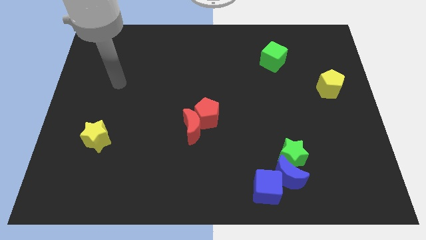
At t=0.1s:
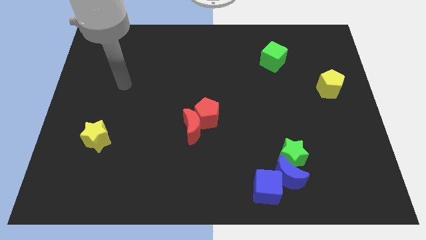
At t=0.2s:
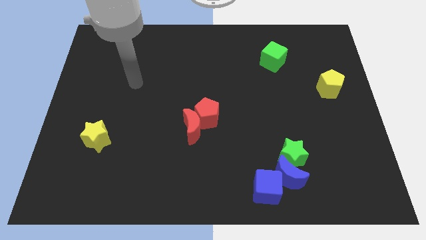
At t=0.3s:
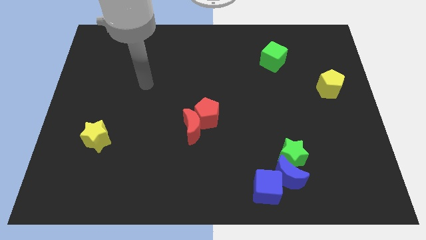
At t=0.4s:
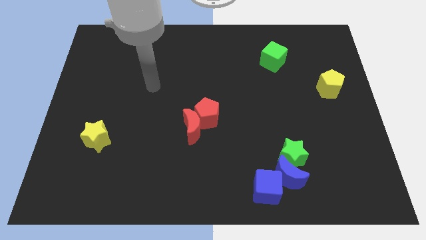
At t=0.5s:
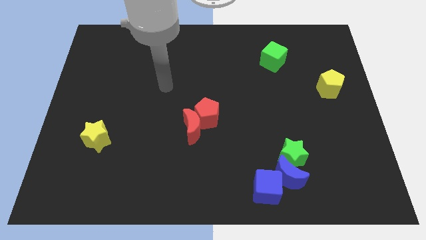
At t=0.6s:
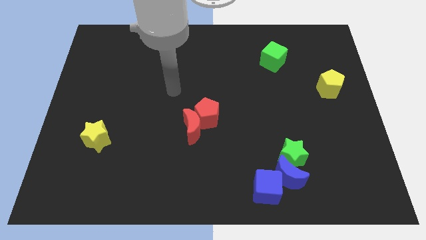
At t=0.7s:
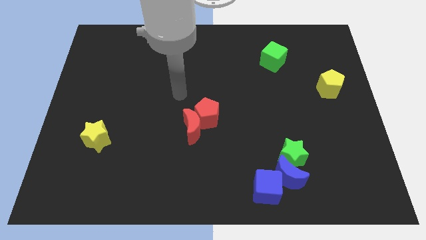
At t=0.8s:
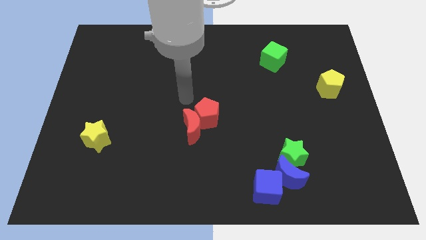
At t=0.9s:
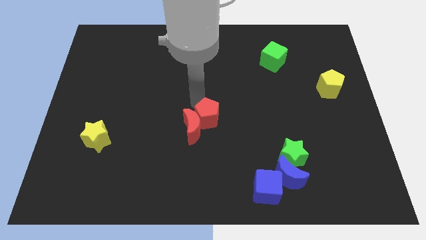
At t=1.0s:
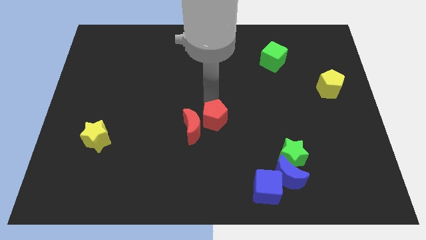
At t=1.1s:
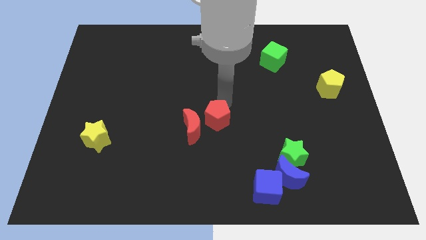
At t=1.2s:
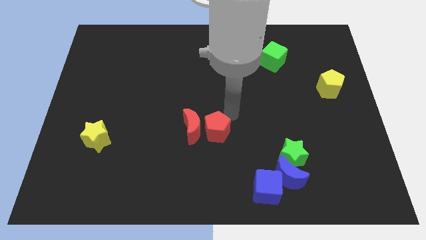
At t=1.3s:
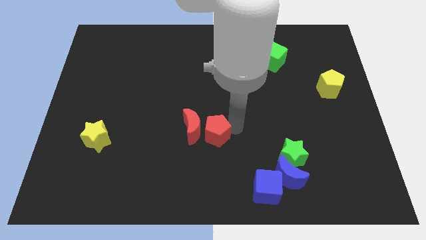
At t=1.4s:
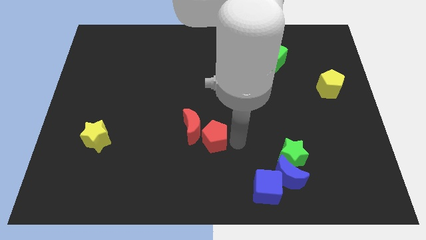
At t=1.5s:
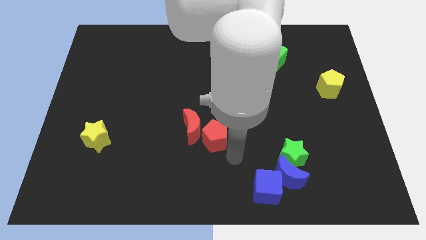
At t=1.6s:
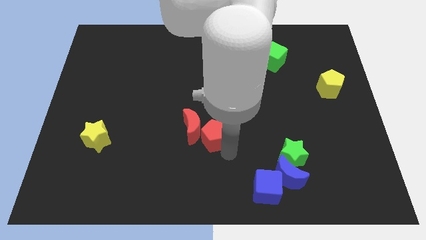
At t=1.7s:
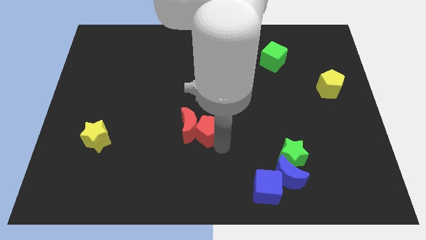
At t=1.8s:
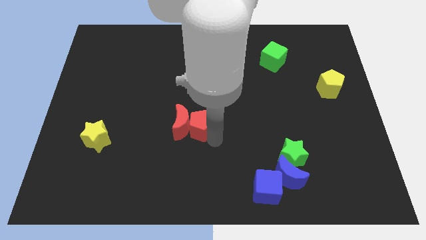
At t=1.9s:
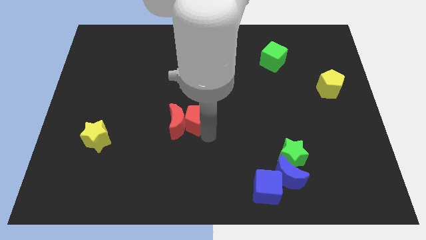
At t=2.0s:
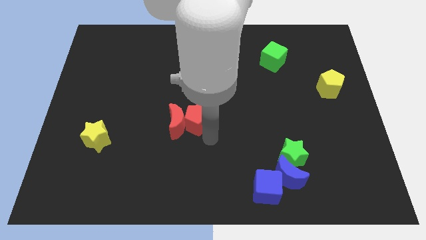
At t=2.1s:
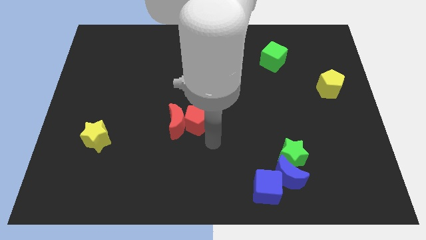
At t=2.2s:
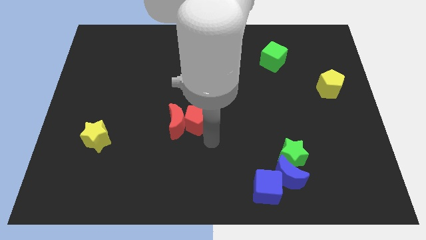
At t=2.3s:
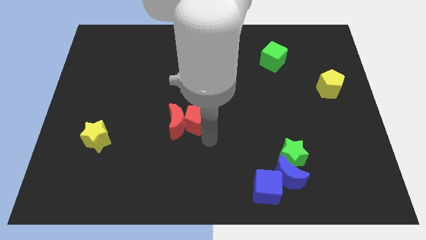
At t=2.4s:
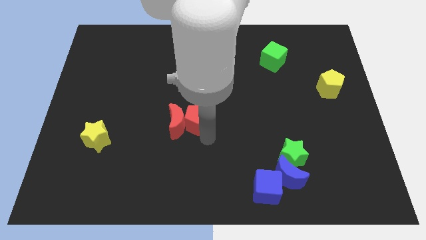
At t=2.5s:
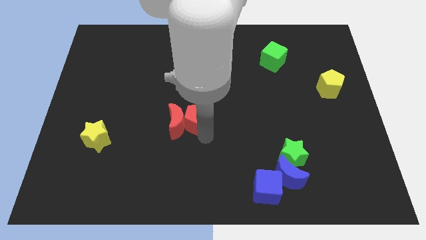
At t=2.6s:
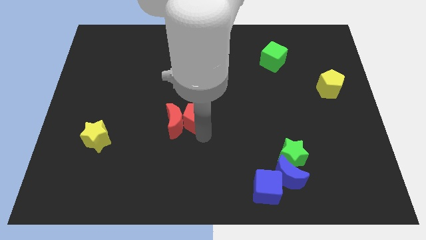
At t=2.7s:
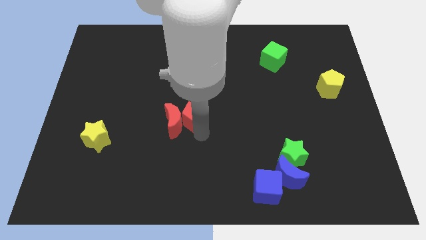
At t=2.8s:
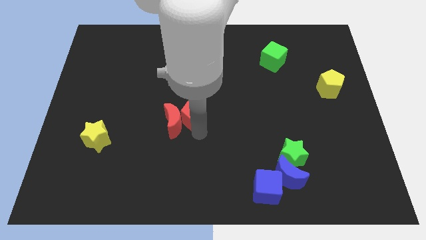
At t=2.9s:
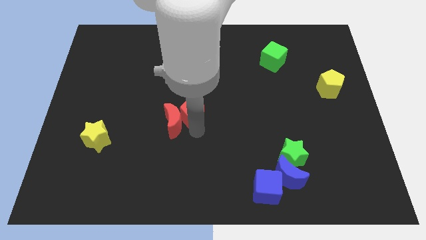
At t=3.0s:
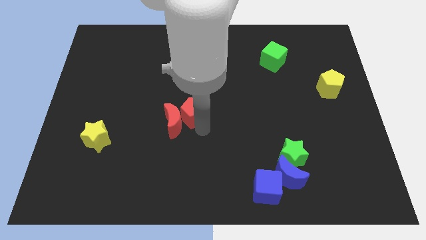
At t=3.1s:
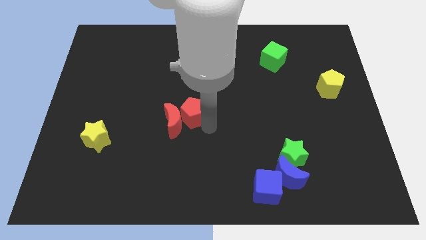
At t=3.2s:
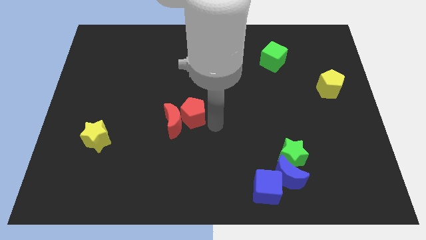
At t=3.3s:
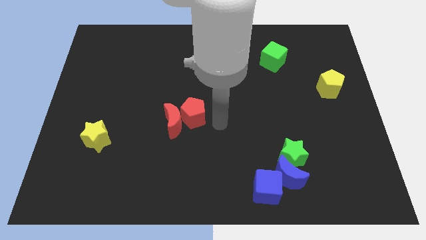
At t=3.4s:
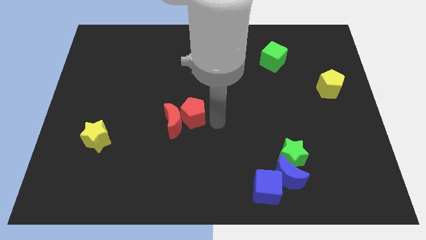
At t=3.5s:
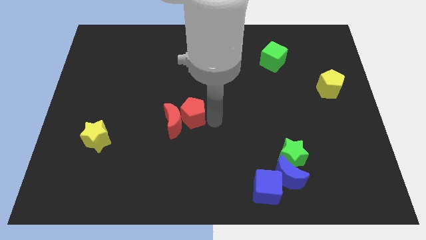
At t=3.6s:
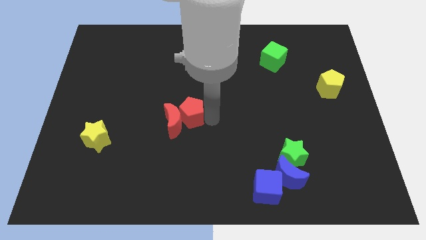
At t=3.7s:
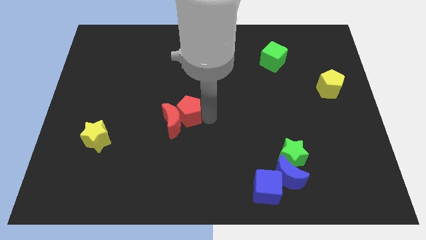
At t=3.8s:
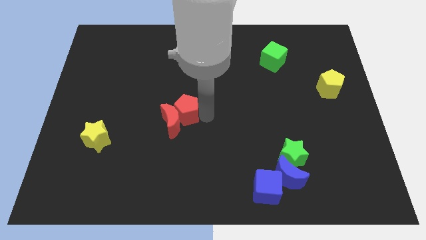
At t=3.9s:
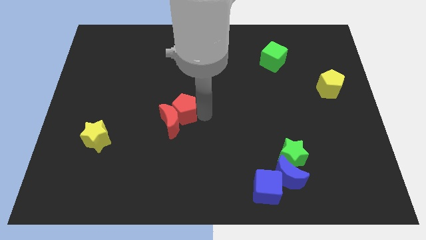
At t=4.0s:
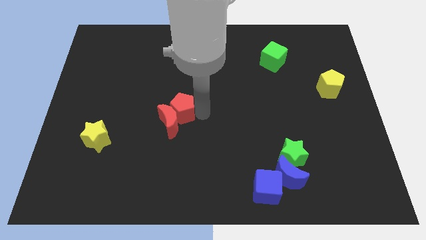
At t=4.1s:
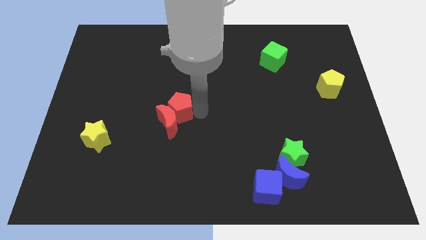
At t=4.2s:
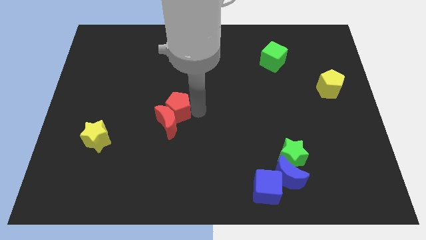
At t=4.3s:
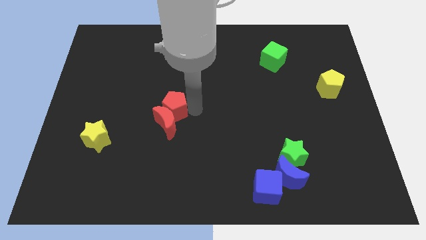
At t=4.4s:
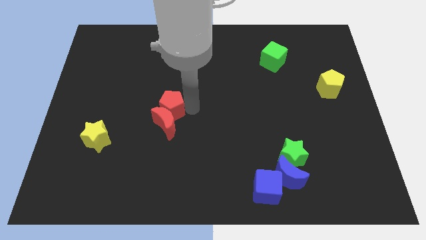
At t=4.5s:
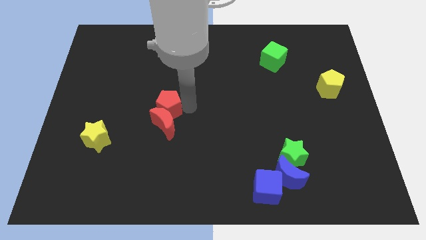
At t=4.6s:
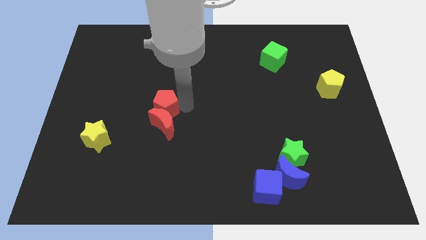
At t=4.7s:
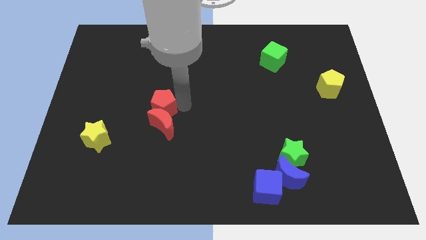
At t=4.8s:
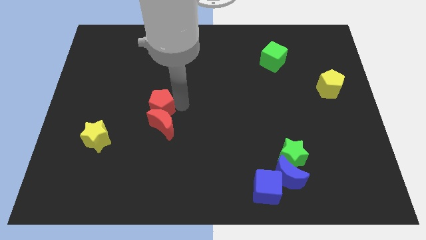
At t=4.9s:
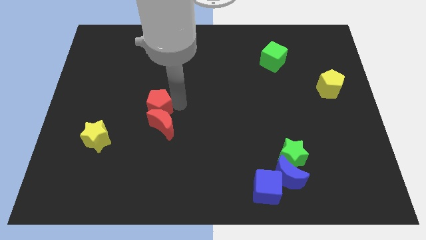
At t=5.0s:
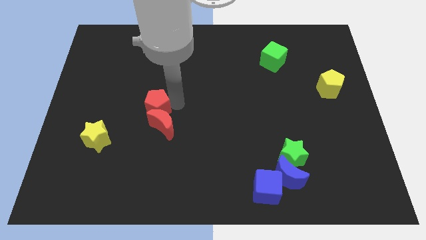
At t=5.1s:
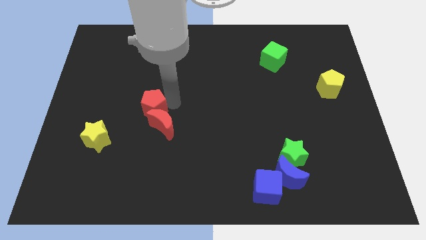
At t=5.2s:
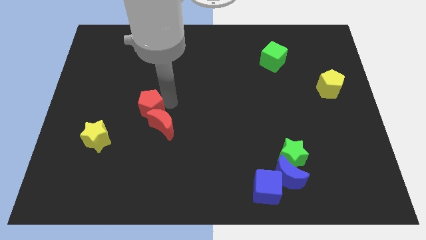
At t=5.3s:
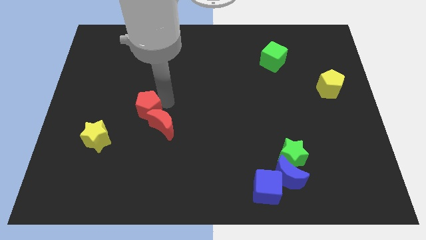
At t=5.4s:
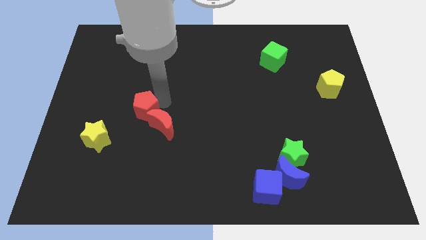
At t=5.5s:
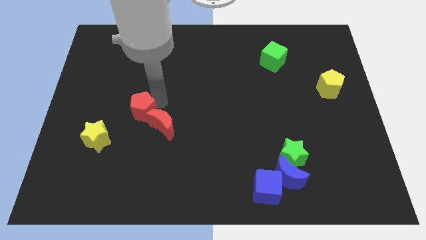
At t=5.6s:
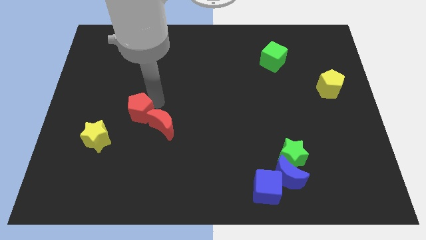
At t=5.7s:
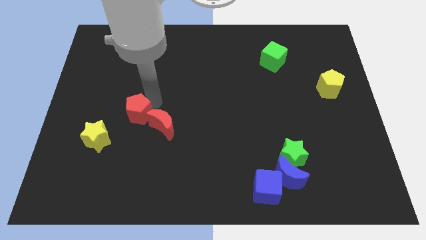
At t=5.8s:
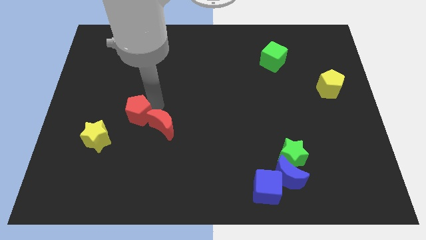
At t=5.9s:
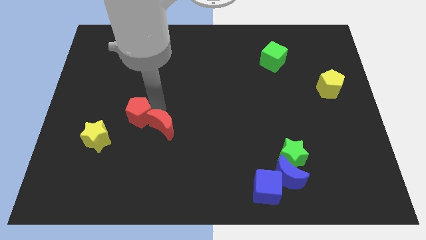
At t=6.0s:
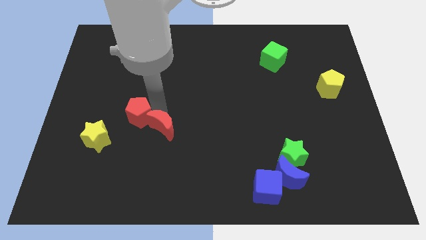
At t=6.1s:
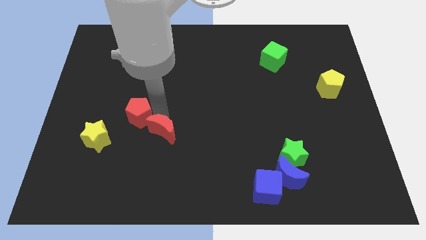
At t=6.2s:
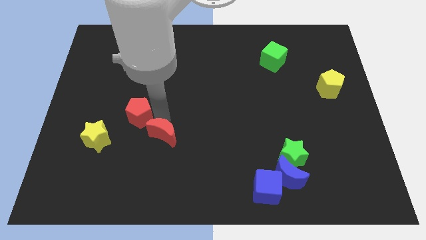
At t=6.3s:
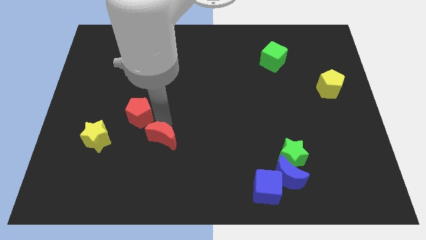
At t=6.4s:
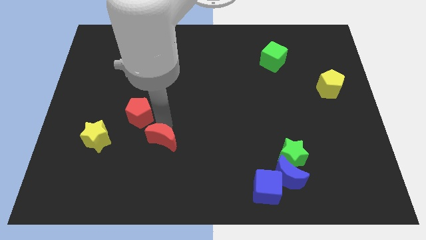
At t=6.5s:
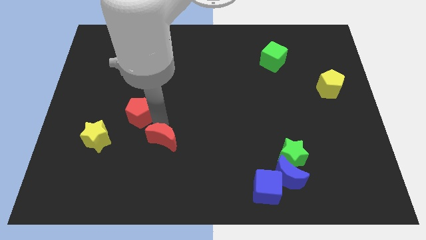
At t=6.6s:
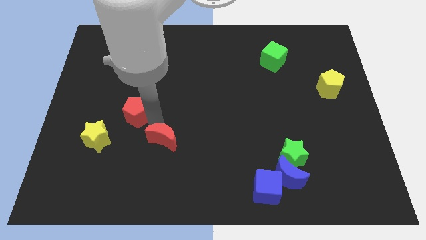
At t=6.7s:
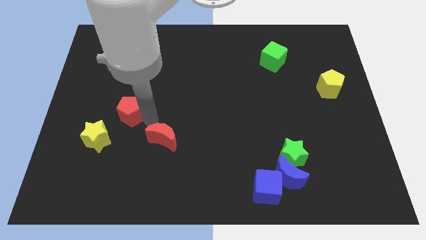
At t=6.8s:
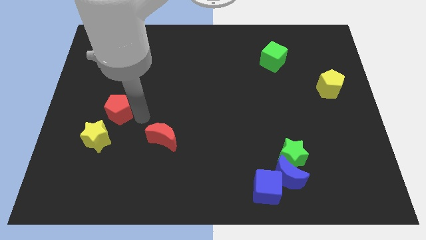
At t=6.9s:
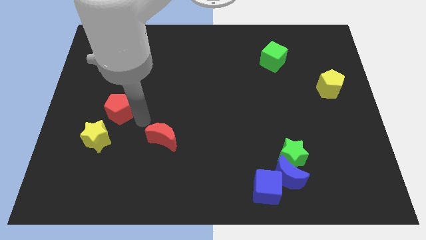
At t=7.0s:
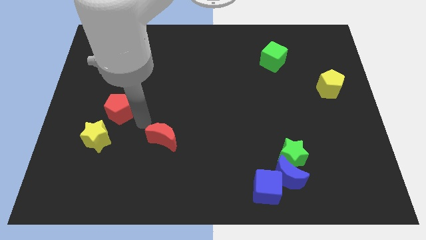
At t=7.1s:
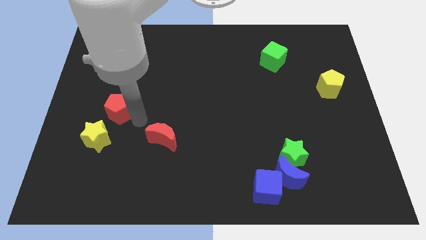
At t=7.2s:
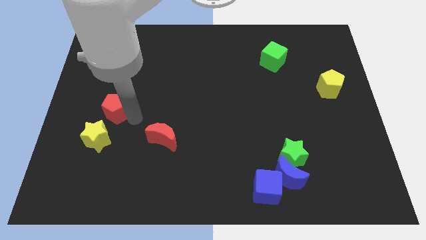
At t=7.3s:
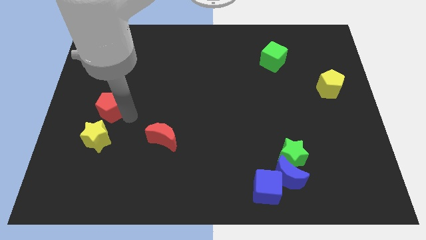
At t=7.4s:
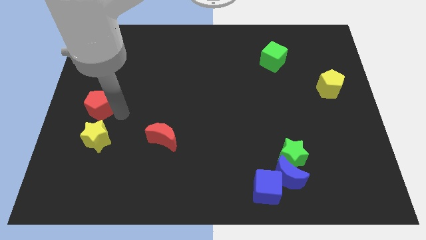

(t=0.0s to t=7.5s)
slide the red pentagon to the left side of the board
